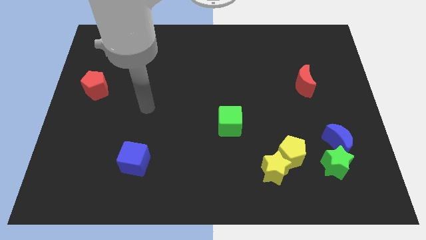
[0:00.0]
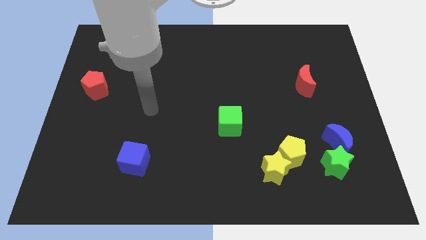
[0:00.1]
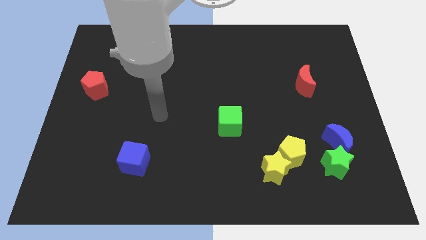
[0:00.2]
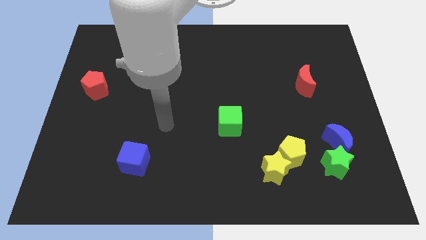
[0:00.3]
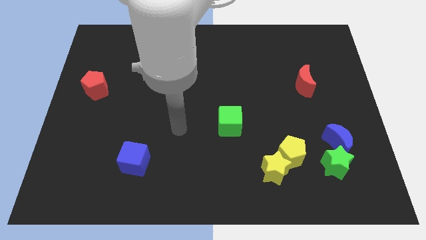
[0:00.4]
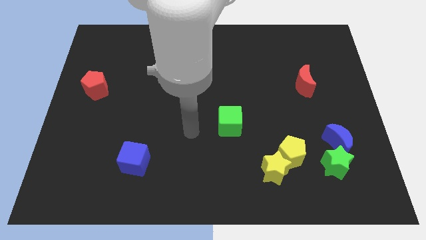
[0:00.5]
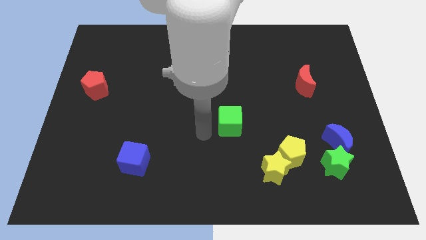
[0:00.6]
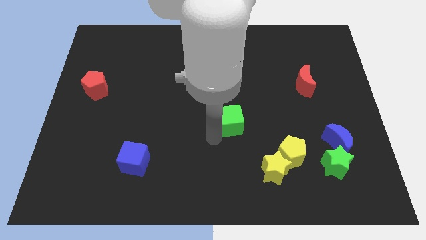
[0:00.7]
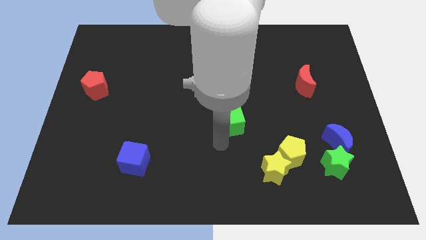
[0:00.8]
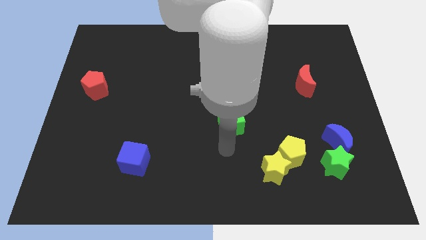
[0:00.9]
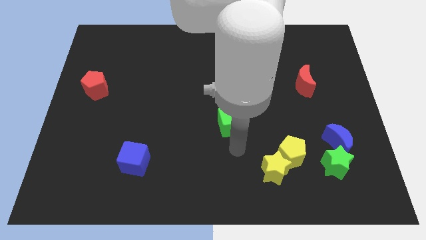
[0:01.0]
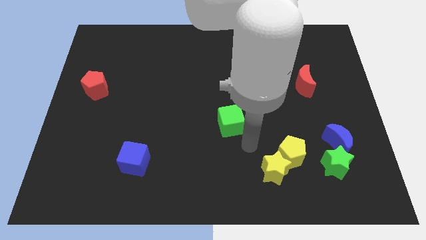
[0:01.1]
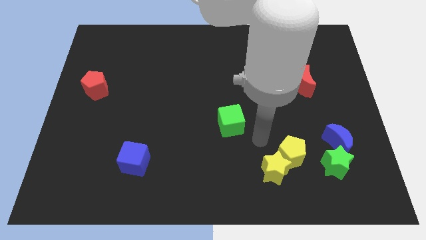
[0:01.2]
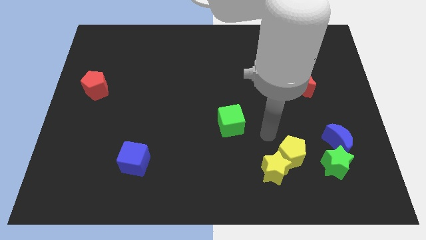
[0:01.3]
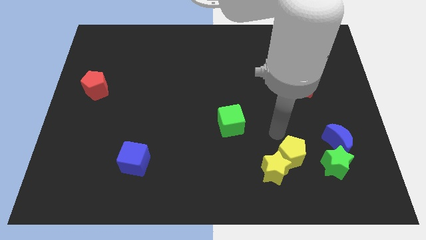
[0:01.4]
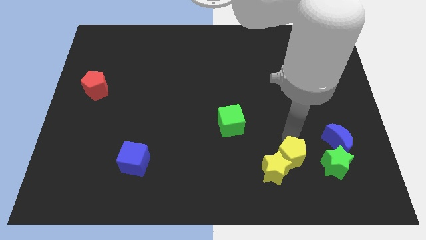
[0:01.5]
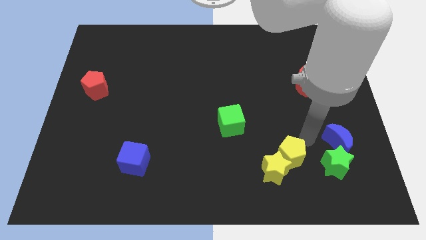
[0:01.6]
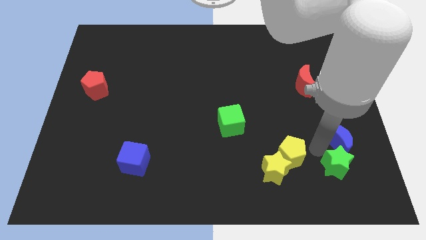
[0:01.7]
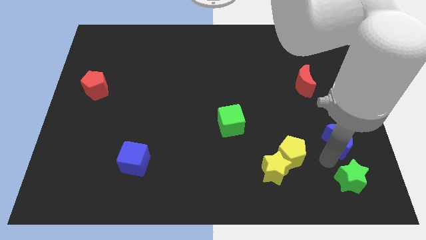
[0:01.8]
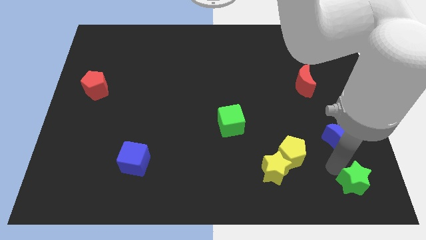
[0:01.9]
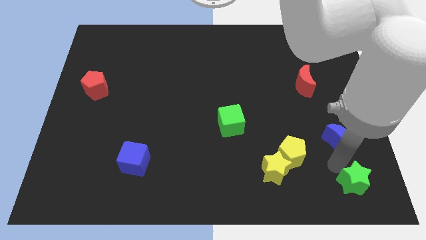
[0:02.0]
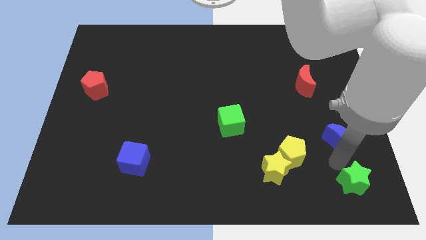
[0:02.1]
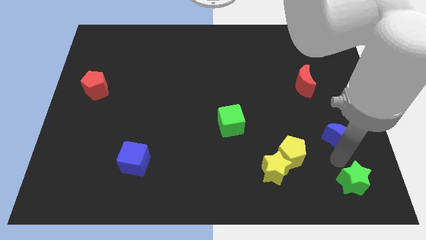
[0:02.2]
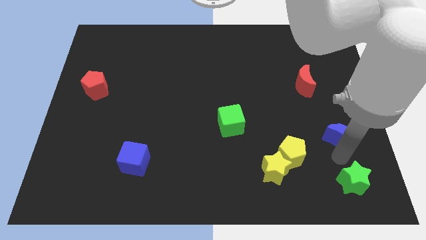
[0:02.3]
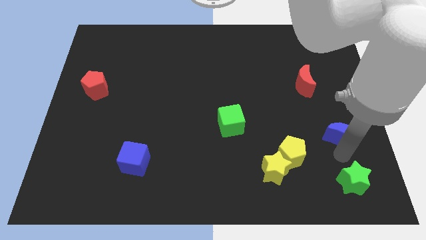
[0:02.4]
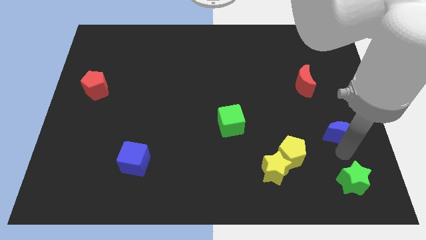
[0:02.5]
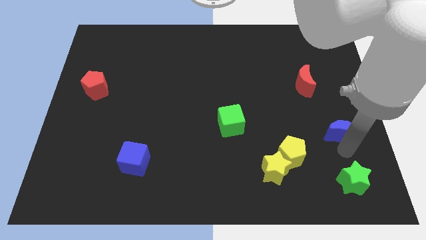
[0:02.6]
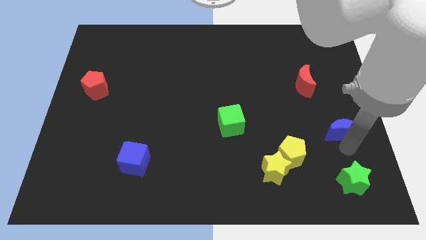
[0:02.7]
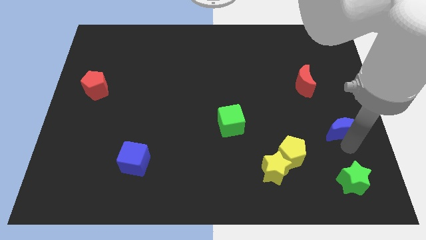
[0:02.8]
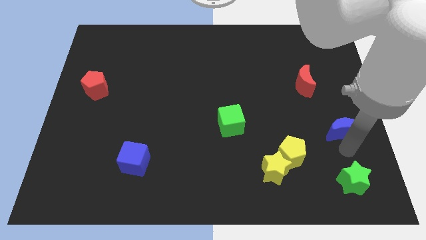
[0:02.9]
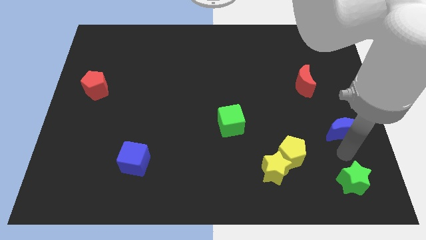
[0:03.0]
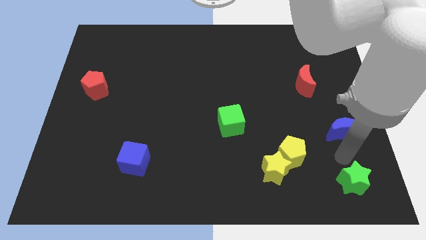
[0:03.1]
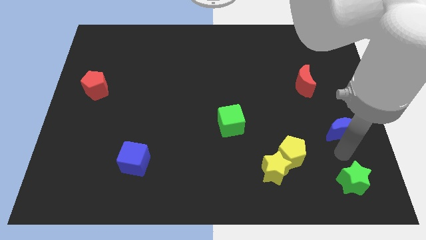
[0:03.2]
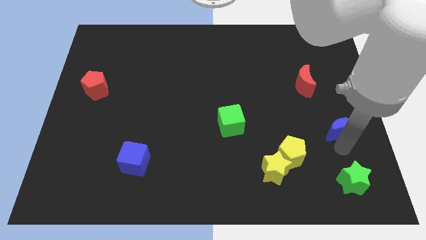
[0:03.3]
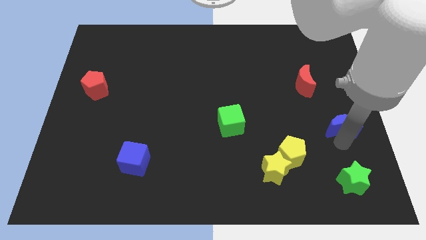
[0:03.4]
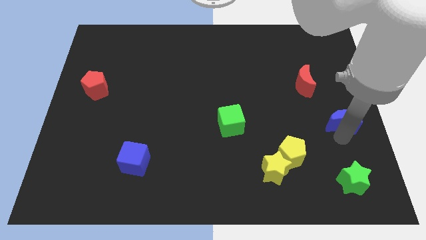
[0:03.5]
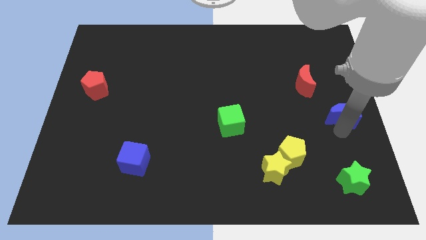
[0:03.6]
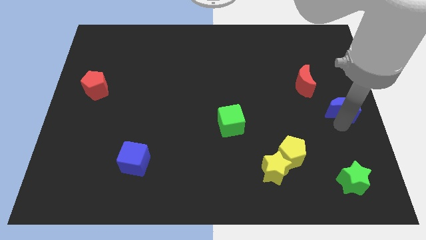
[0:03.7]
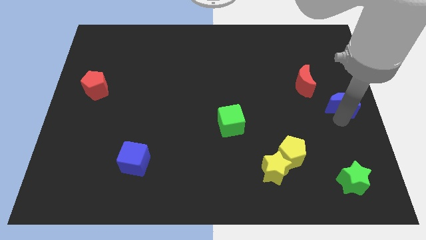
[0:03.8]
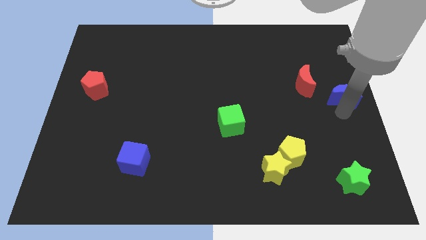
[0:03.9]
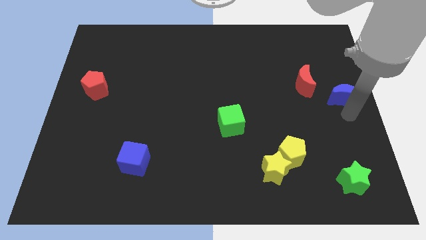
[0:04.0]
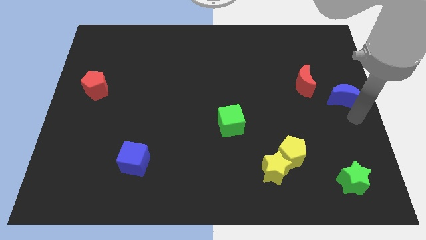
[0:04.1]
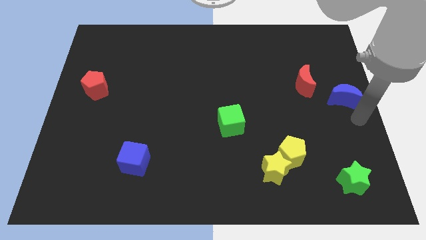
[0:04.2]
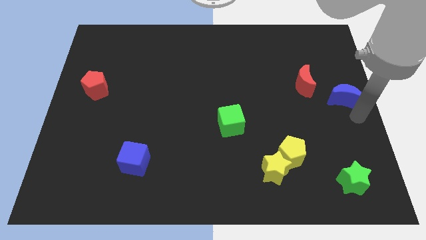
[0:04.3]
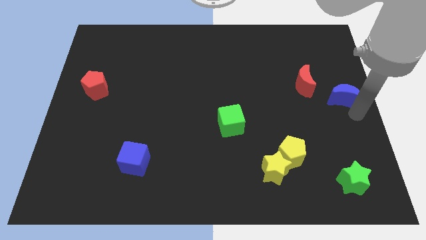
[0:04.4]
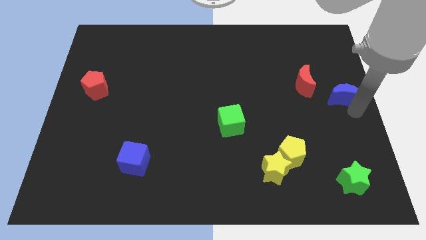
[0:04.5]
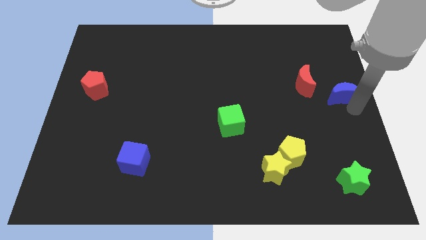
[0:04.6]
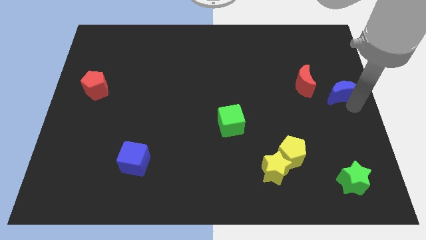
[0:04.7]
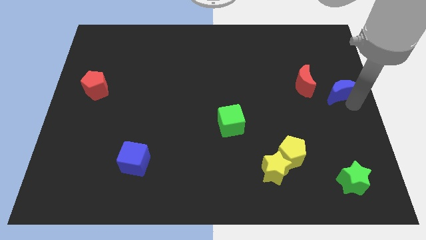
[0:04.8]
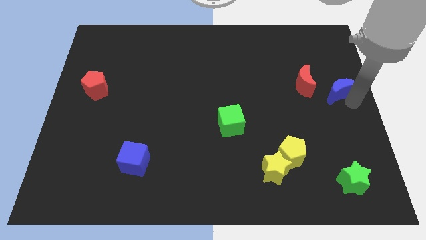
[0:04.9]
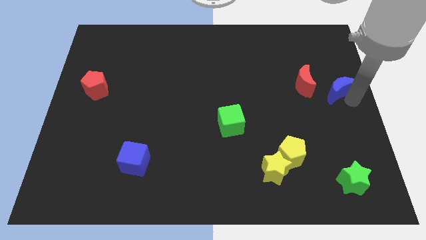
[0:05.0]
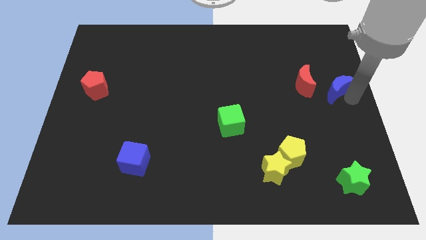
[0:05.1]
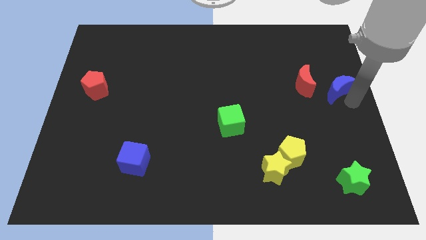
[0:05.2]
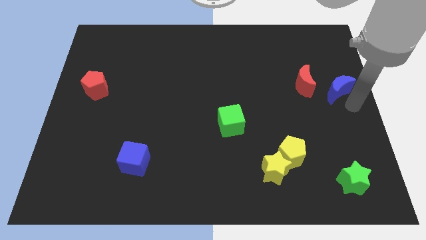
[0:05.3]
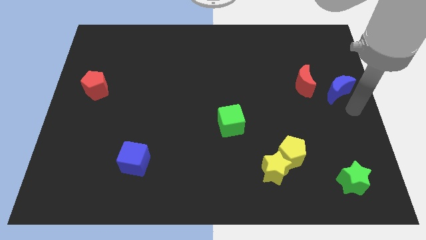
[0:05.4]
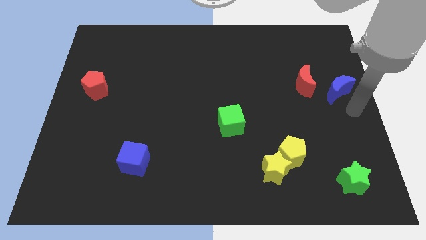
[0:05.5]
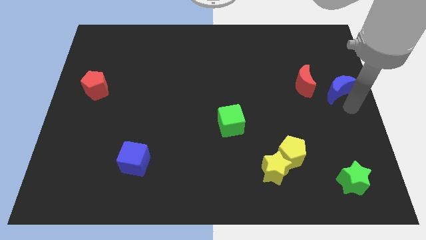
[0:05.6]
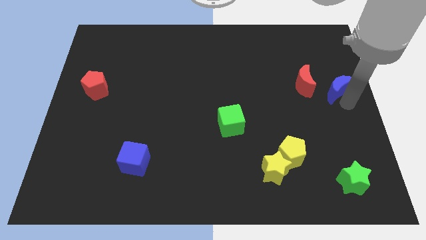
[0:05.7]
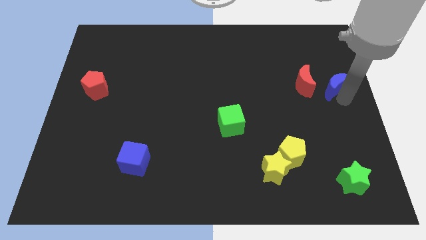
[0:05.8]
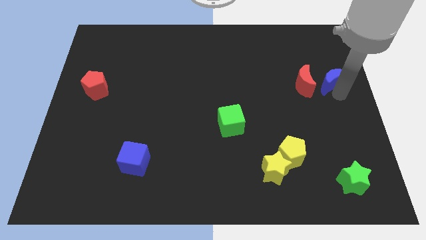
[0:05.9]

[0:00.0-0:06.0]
push the blue moon to the top right of the red moon

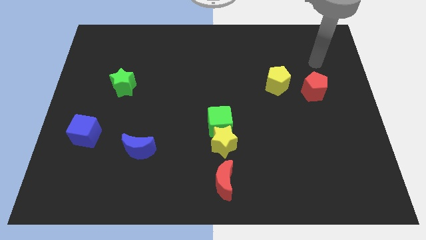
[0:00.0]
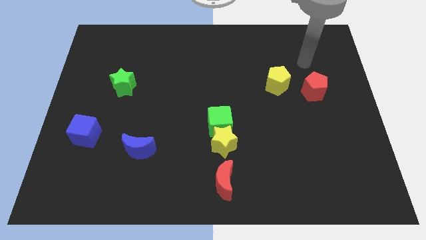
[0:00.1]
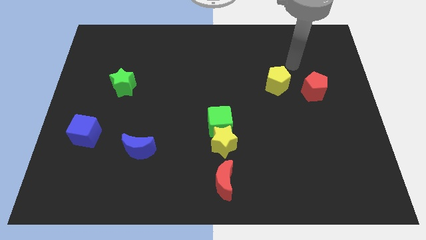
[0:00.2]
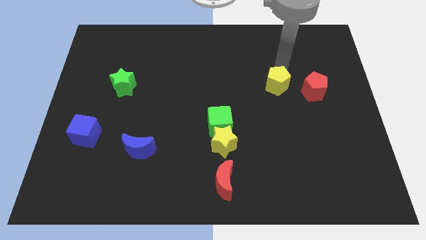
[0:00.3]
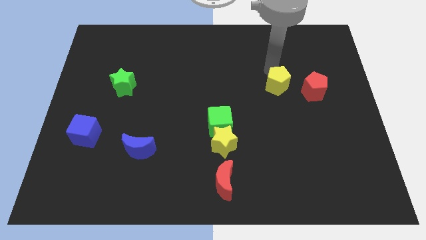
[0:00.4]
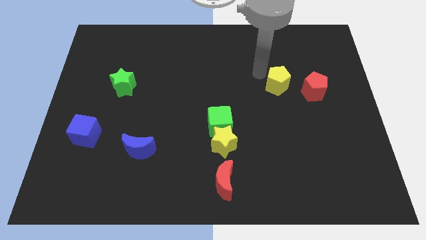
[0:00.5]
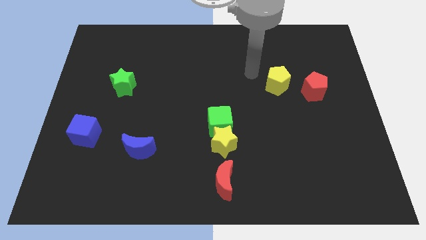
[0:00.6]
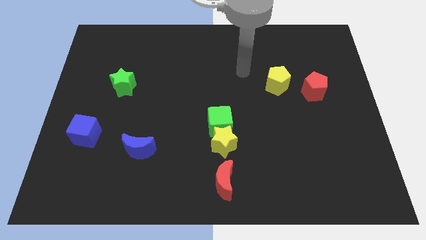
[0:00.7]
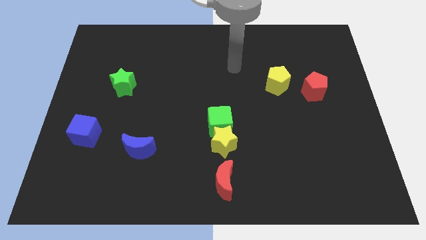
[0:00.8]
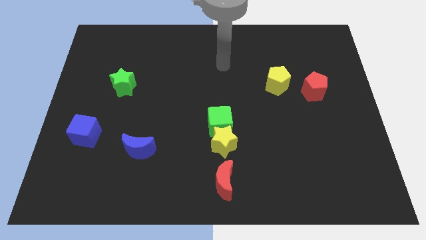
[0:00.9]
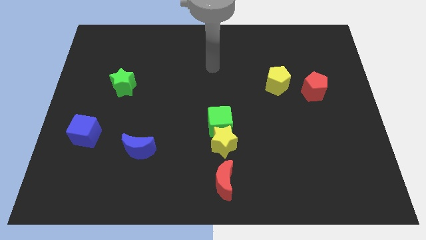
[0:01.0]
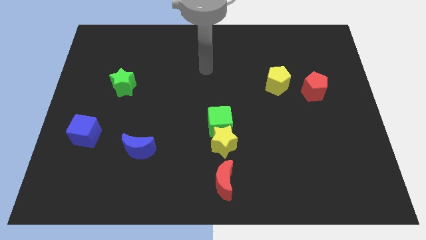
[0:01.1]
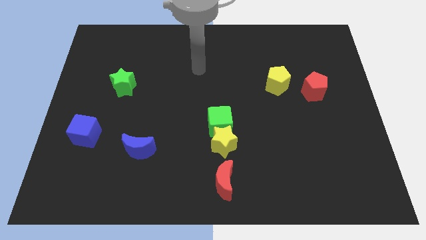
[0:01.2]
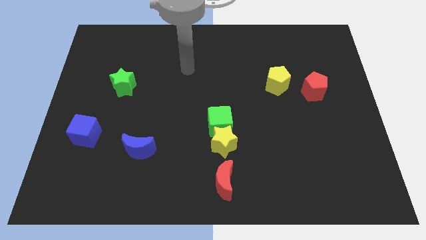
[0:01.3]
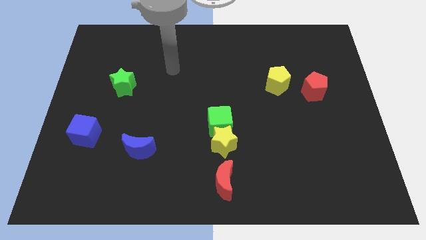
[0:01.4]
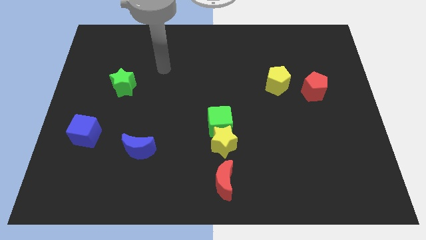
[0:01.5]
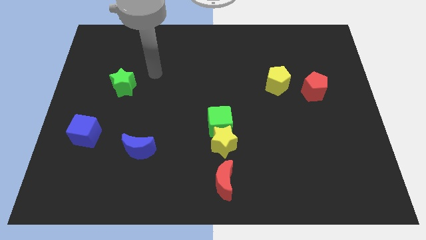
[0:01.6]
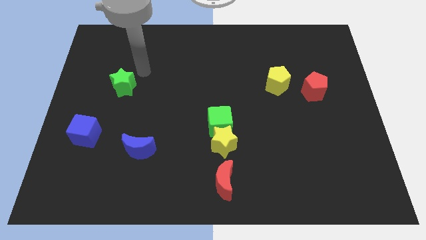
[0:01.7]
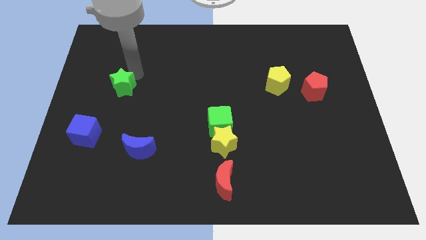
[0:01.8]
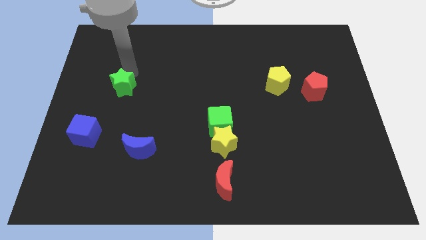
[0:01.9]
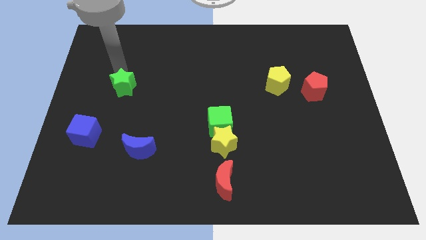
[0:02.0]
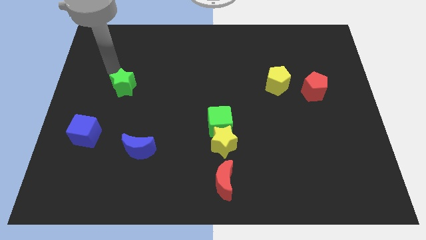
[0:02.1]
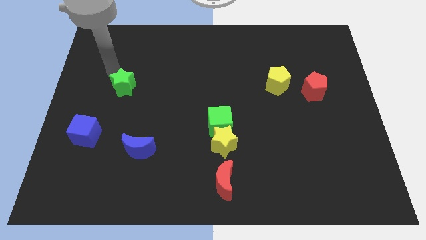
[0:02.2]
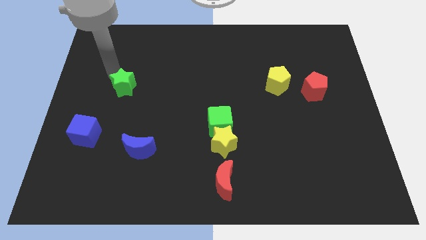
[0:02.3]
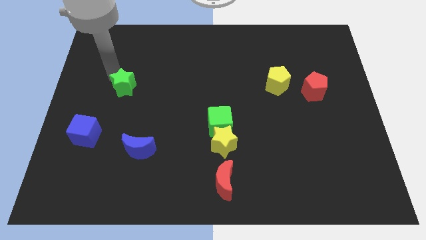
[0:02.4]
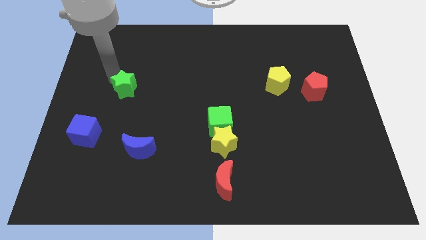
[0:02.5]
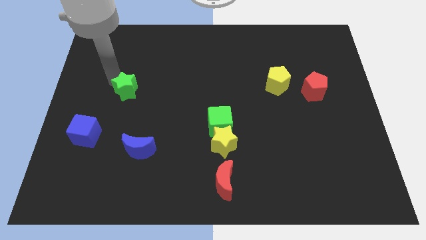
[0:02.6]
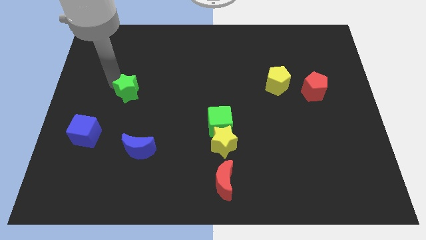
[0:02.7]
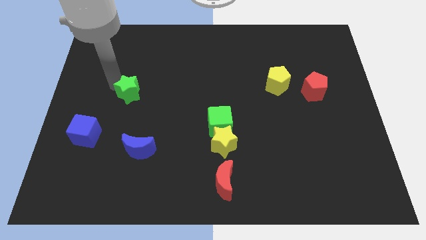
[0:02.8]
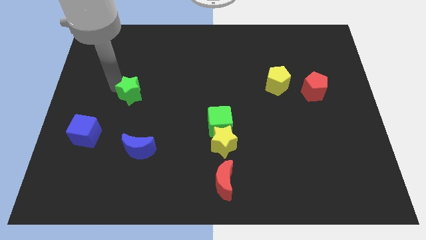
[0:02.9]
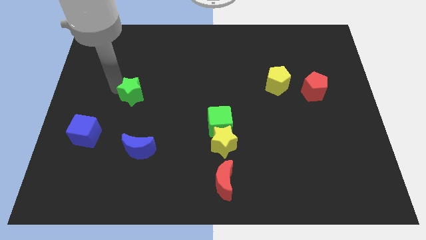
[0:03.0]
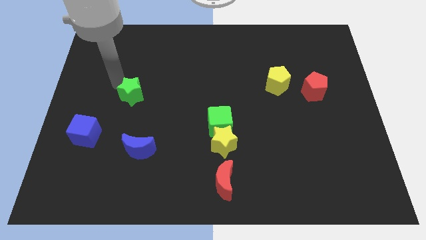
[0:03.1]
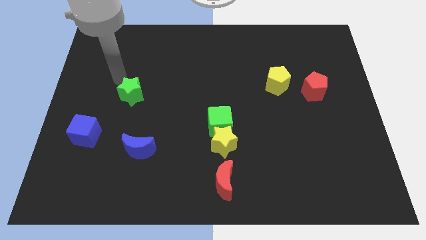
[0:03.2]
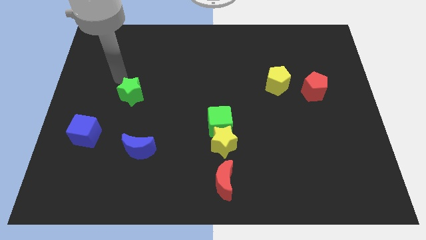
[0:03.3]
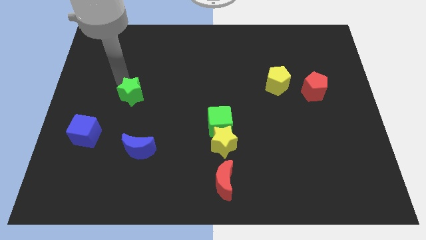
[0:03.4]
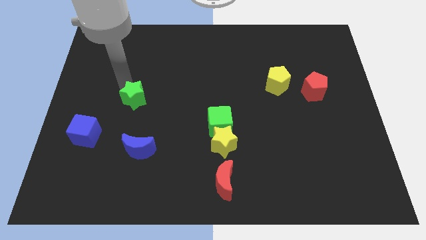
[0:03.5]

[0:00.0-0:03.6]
push the green star above the blue moon
